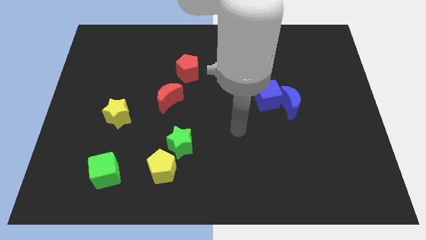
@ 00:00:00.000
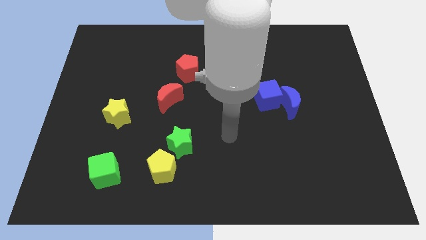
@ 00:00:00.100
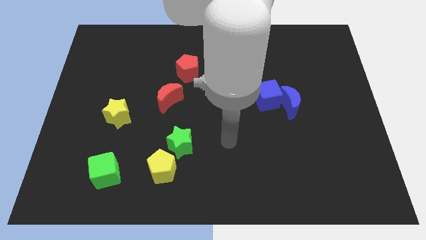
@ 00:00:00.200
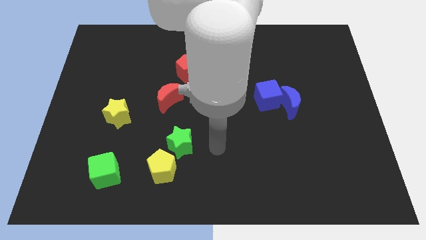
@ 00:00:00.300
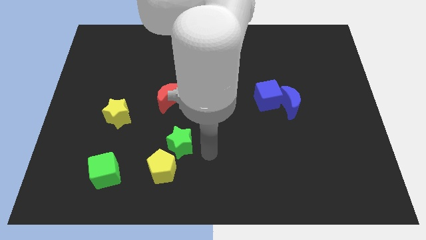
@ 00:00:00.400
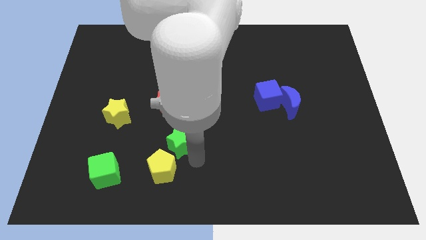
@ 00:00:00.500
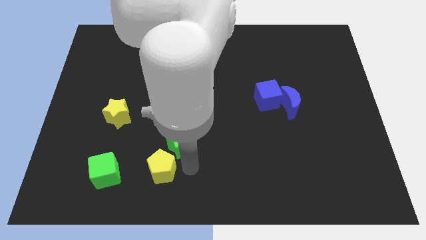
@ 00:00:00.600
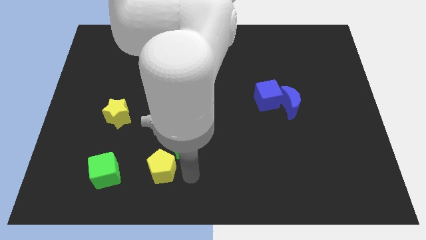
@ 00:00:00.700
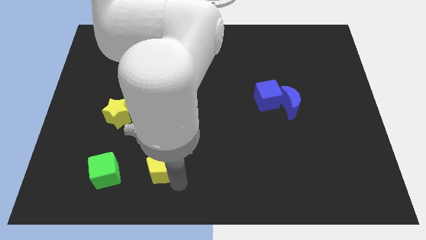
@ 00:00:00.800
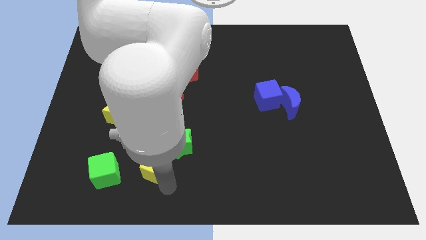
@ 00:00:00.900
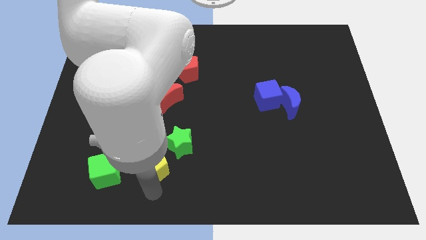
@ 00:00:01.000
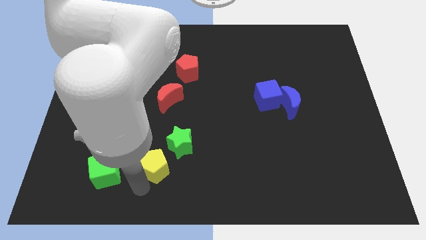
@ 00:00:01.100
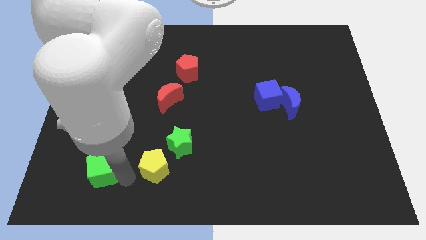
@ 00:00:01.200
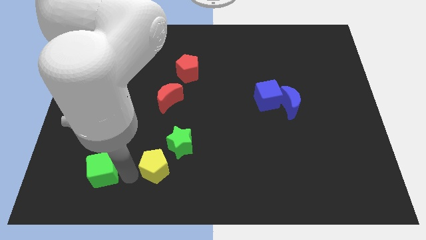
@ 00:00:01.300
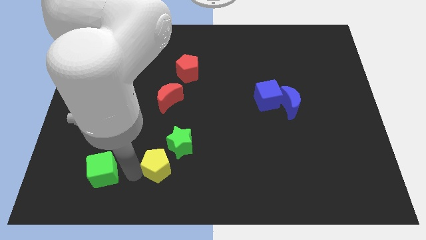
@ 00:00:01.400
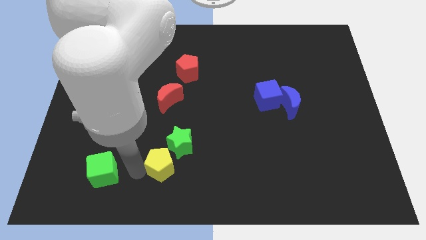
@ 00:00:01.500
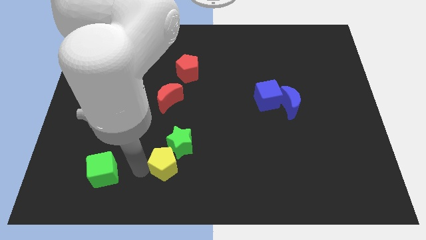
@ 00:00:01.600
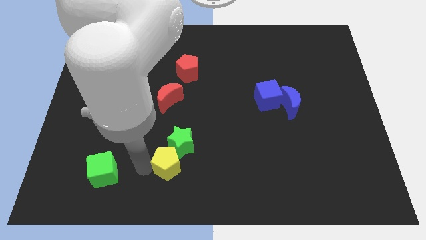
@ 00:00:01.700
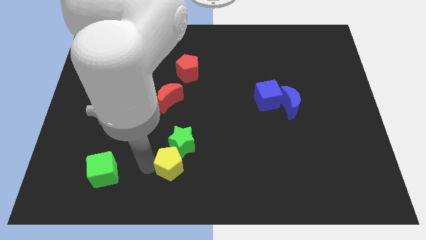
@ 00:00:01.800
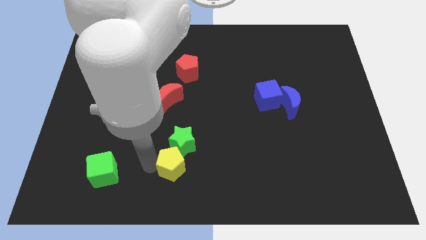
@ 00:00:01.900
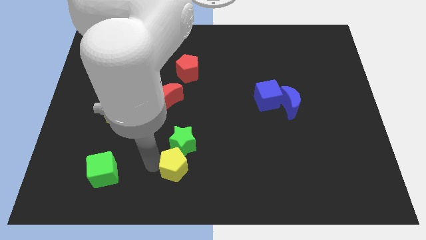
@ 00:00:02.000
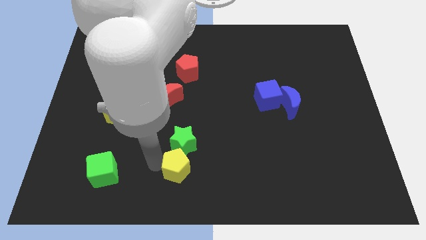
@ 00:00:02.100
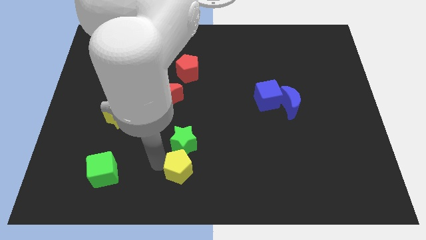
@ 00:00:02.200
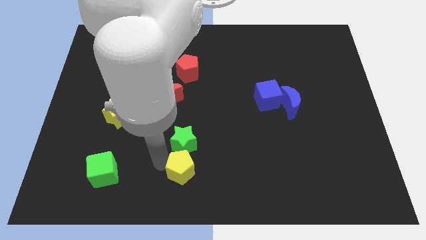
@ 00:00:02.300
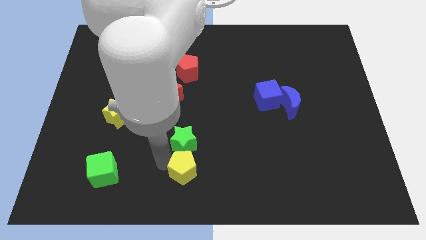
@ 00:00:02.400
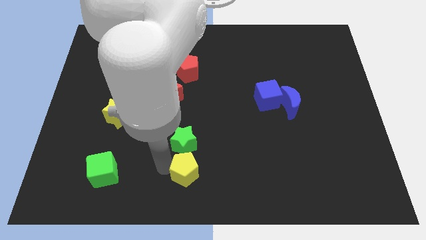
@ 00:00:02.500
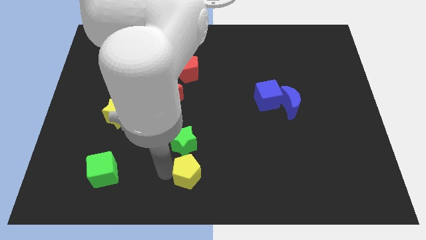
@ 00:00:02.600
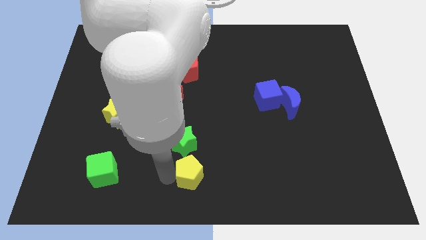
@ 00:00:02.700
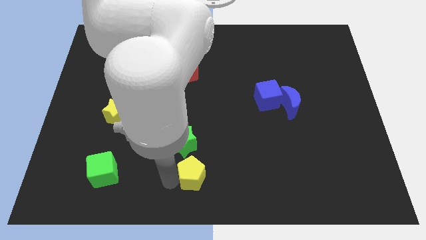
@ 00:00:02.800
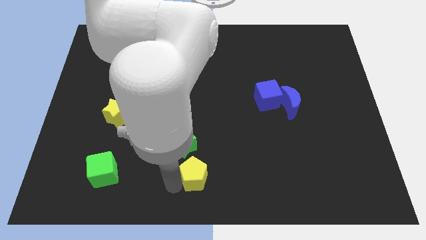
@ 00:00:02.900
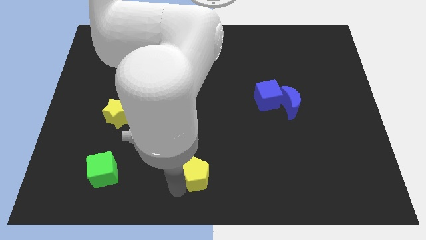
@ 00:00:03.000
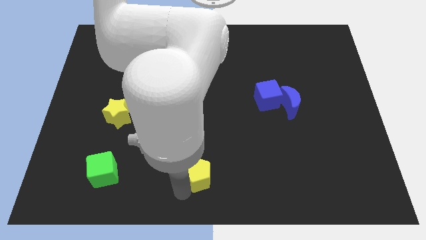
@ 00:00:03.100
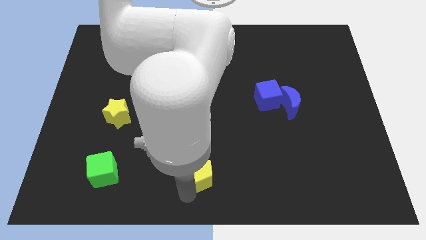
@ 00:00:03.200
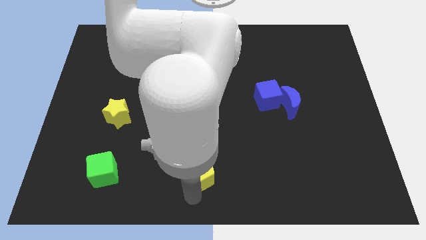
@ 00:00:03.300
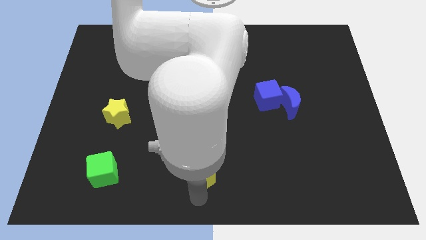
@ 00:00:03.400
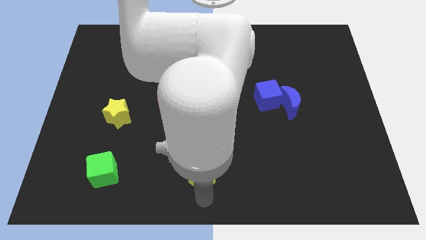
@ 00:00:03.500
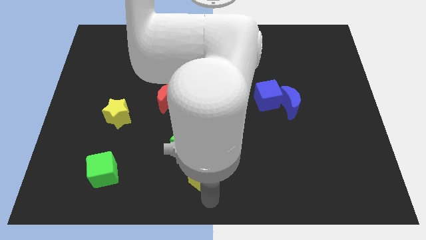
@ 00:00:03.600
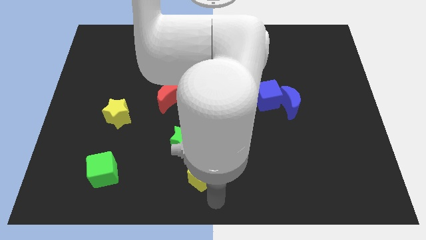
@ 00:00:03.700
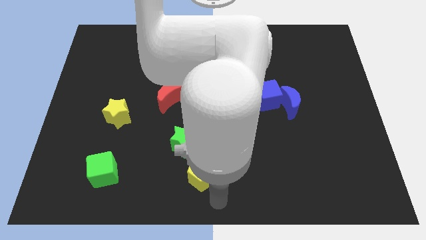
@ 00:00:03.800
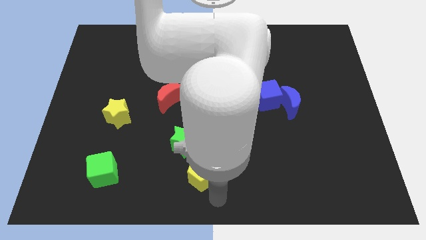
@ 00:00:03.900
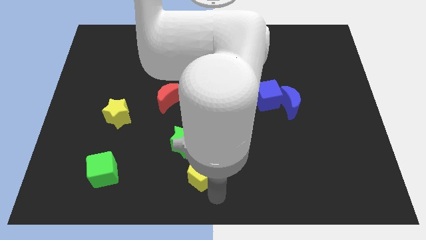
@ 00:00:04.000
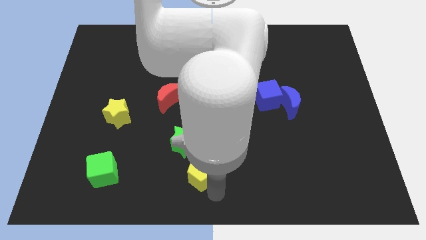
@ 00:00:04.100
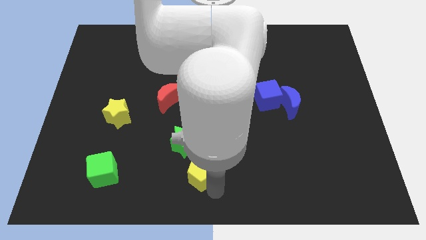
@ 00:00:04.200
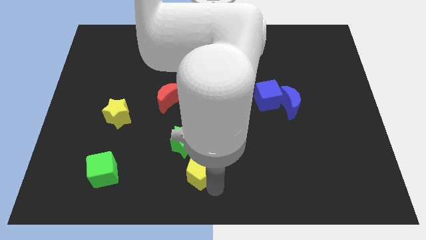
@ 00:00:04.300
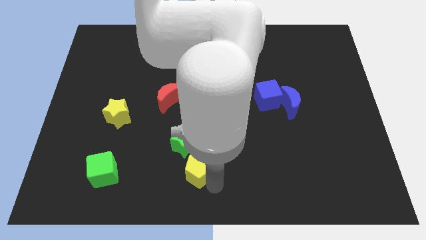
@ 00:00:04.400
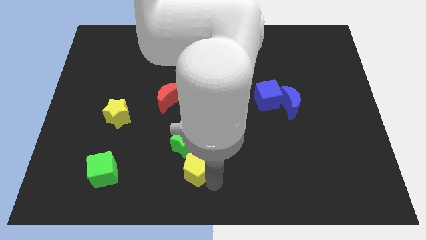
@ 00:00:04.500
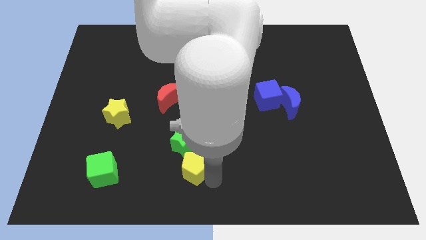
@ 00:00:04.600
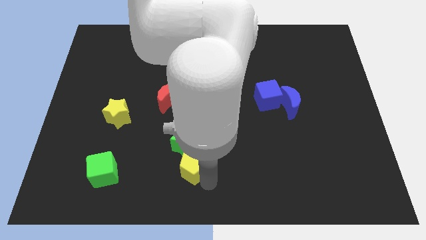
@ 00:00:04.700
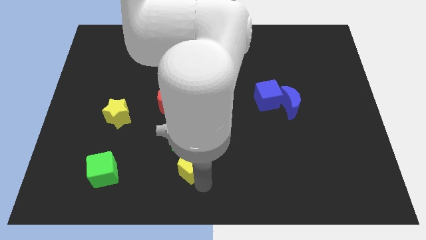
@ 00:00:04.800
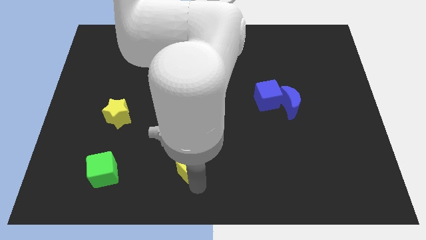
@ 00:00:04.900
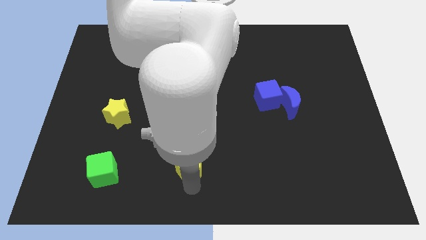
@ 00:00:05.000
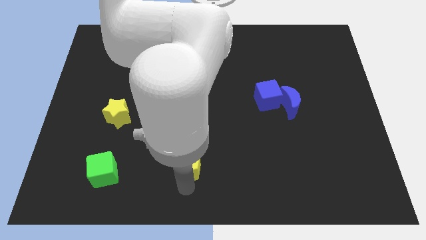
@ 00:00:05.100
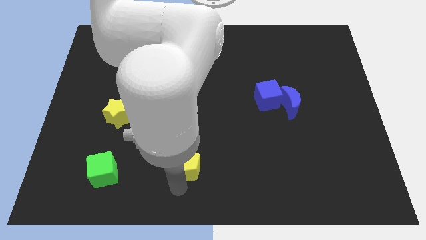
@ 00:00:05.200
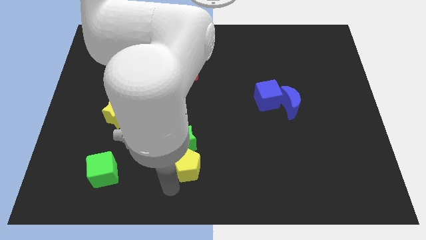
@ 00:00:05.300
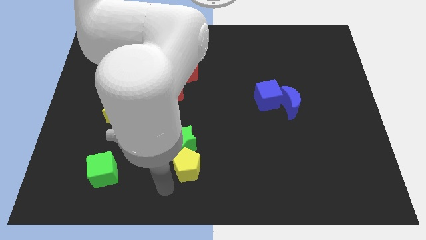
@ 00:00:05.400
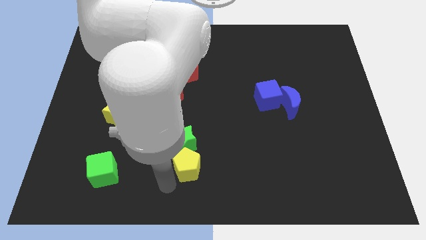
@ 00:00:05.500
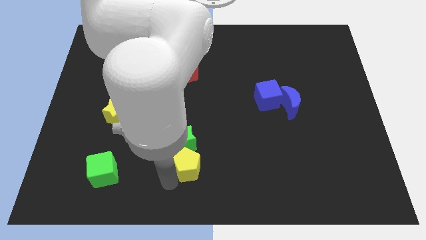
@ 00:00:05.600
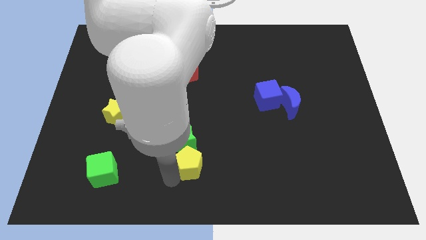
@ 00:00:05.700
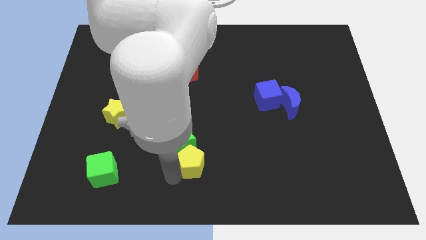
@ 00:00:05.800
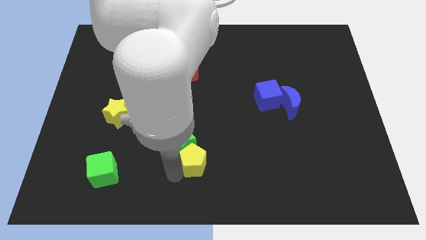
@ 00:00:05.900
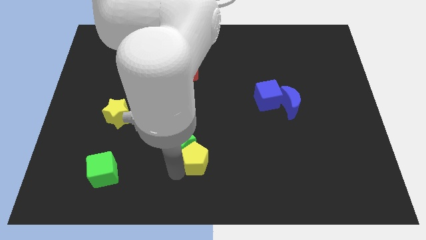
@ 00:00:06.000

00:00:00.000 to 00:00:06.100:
put the yellow pentagon right of the green star
